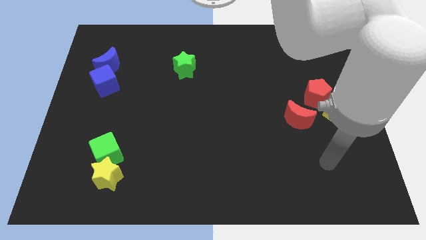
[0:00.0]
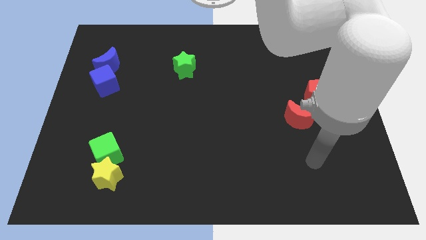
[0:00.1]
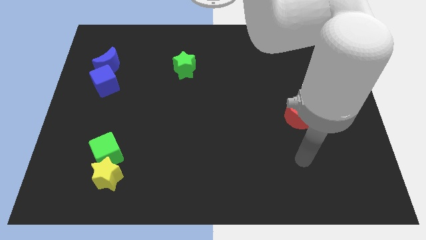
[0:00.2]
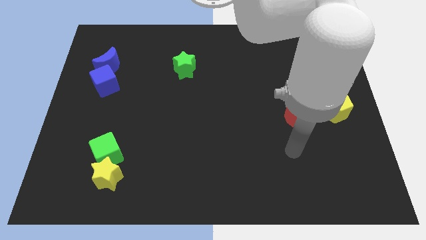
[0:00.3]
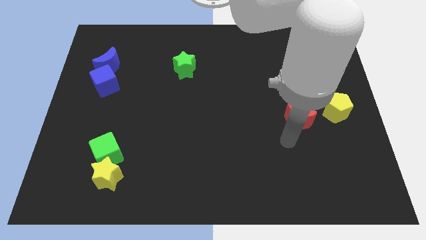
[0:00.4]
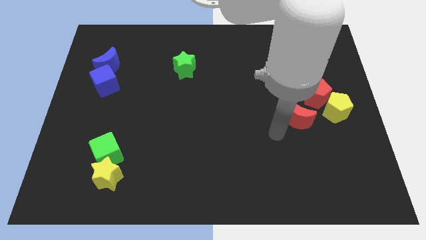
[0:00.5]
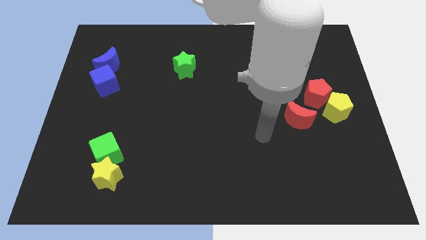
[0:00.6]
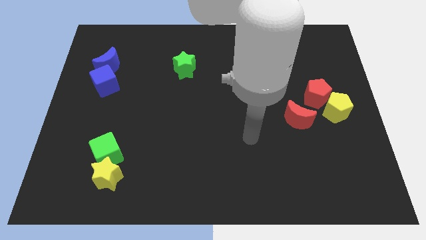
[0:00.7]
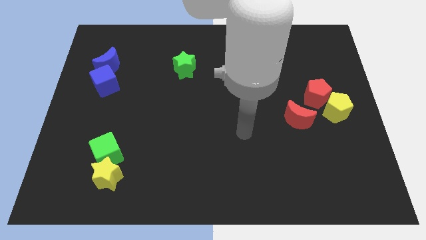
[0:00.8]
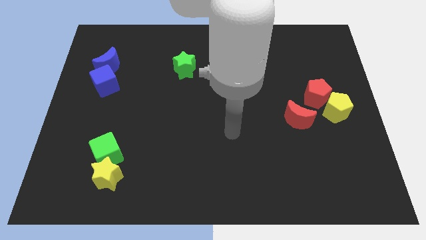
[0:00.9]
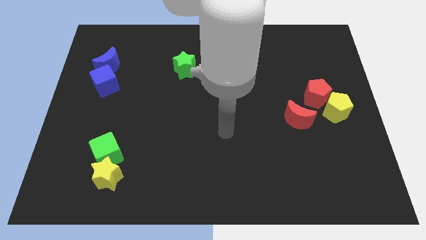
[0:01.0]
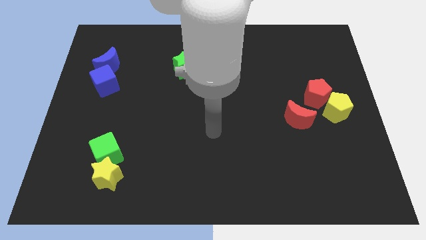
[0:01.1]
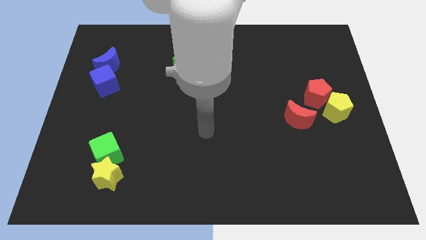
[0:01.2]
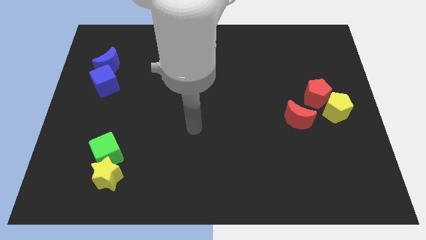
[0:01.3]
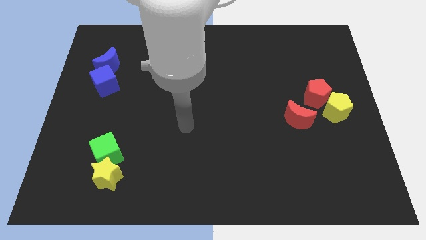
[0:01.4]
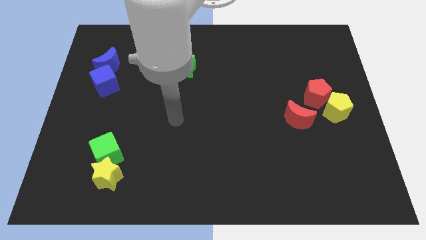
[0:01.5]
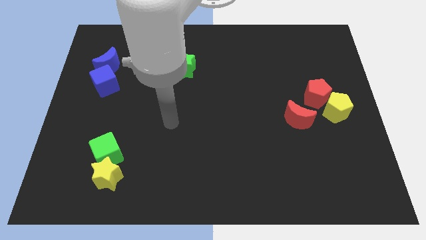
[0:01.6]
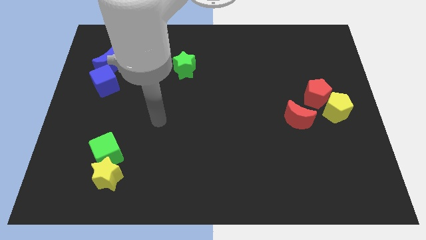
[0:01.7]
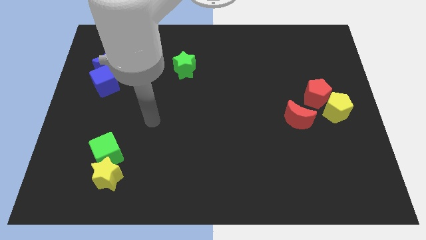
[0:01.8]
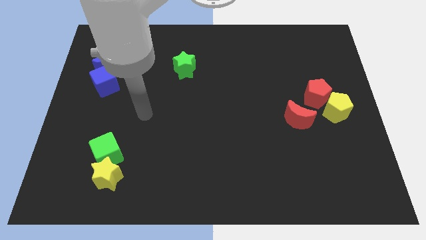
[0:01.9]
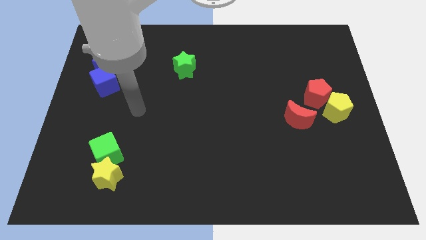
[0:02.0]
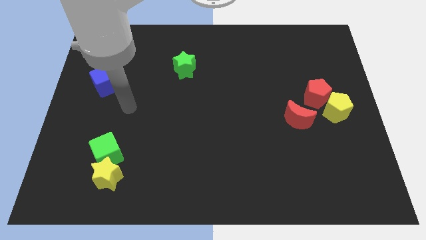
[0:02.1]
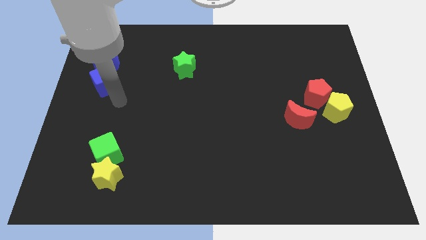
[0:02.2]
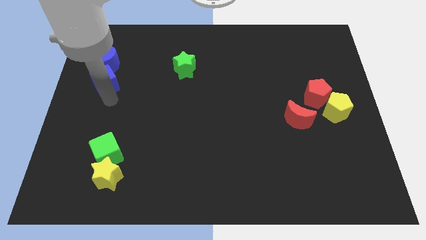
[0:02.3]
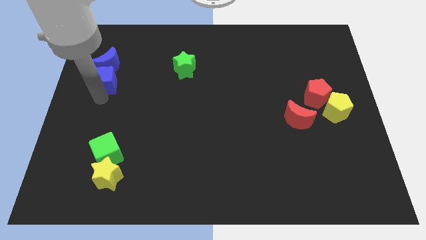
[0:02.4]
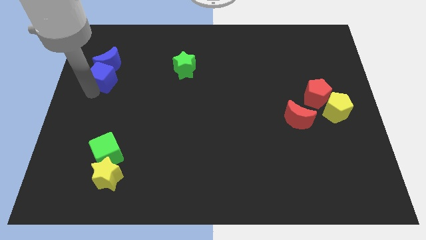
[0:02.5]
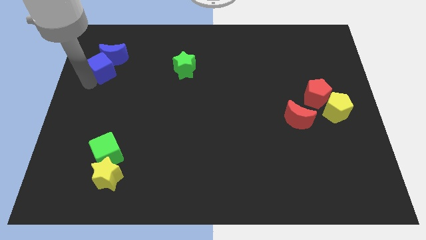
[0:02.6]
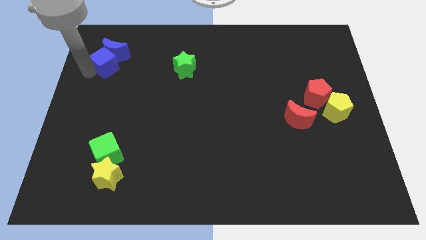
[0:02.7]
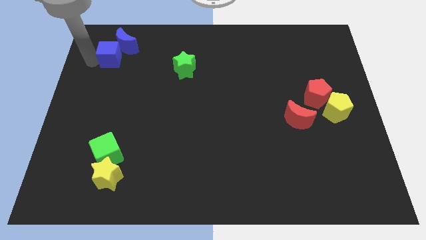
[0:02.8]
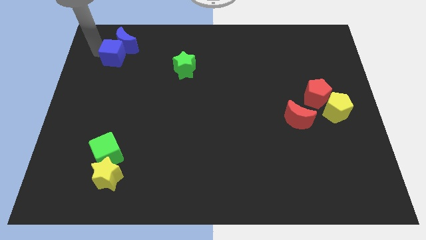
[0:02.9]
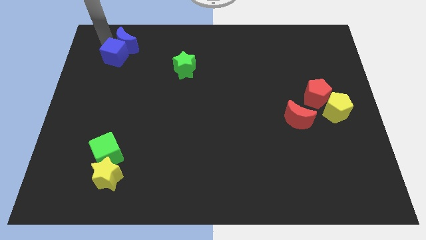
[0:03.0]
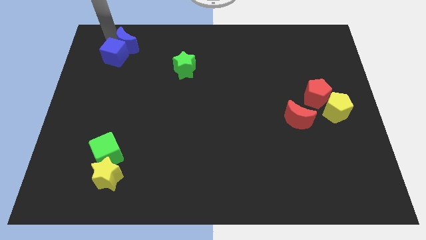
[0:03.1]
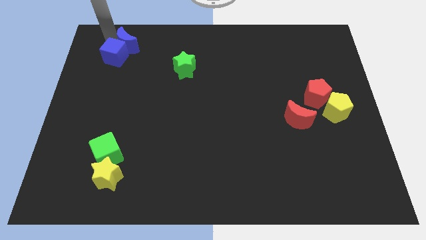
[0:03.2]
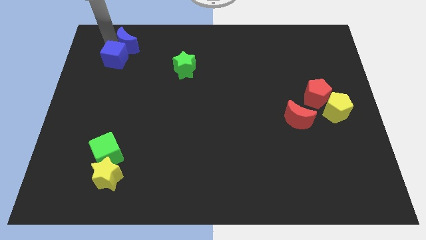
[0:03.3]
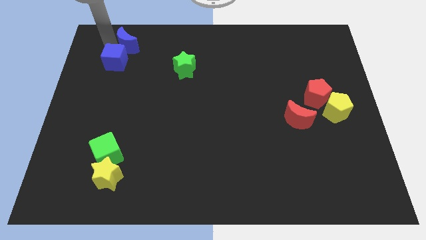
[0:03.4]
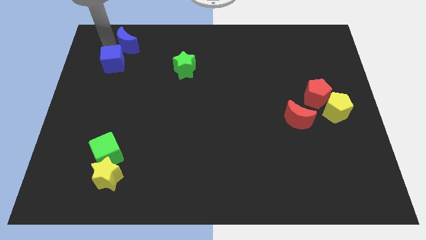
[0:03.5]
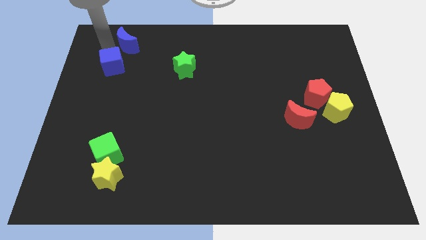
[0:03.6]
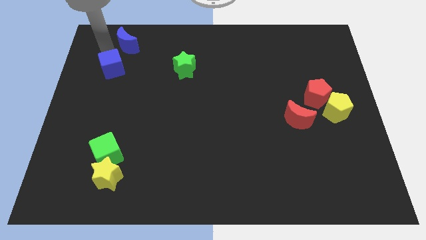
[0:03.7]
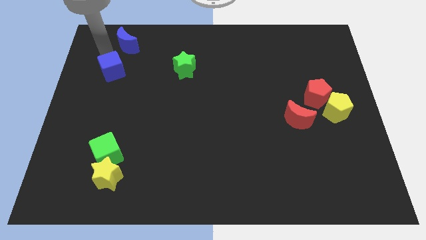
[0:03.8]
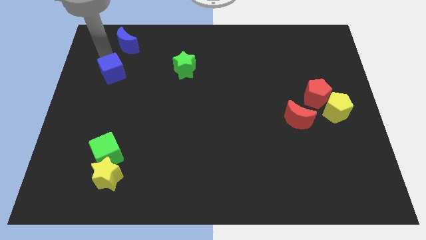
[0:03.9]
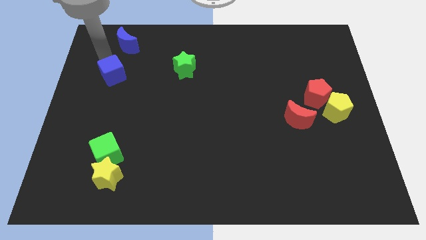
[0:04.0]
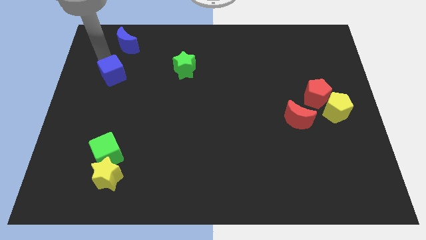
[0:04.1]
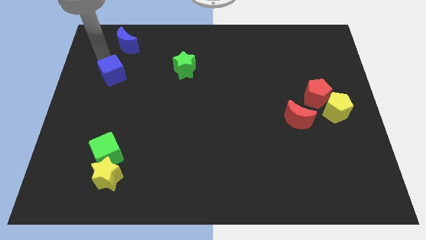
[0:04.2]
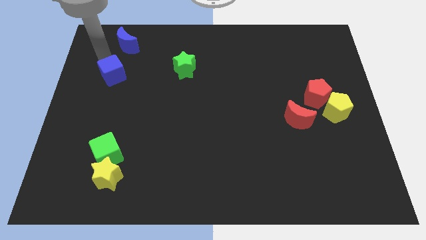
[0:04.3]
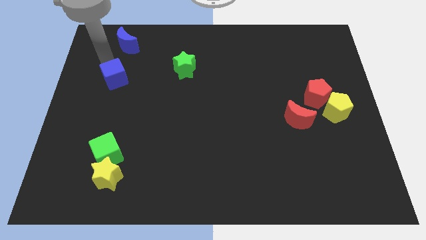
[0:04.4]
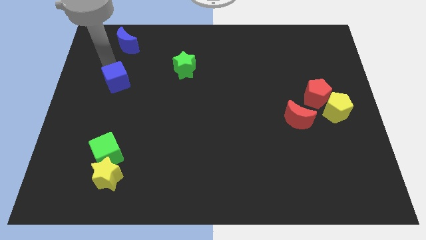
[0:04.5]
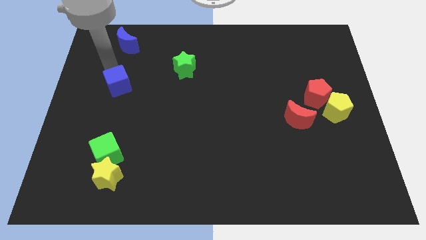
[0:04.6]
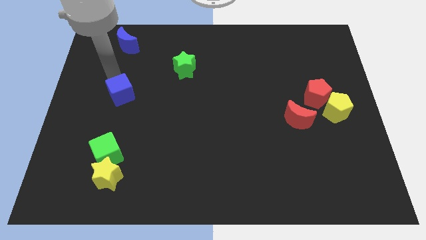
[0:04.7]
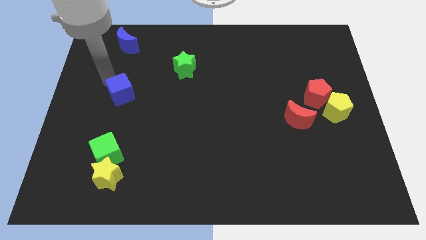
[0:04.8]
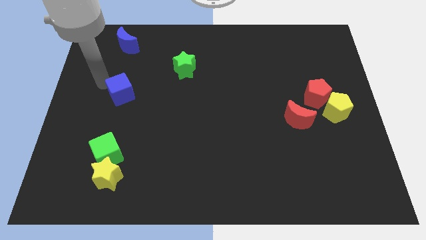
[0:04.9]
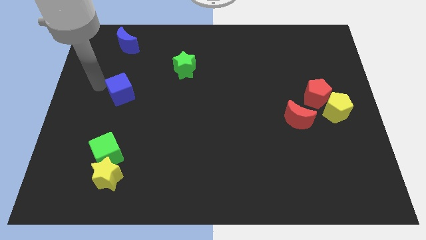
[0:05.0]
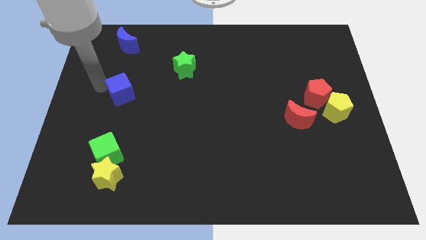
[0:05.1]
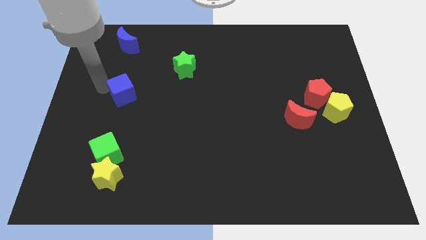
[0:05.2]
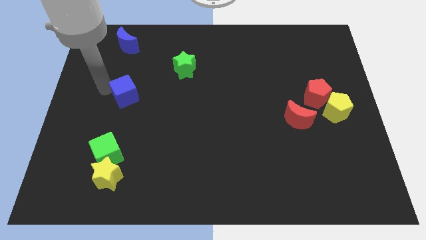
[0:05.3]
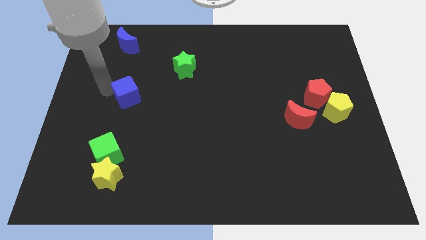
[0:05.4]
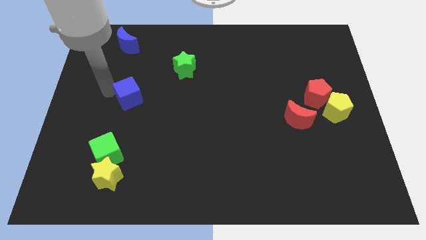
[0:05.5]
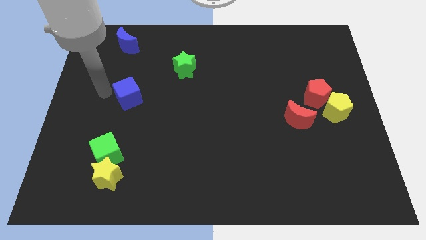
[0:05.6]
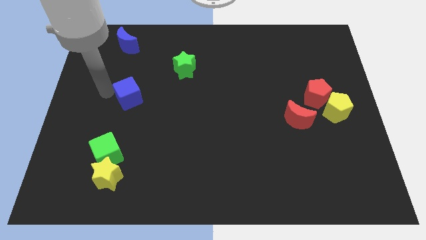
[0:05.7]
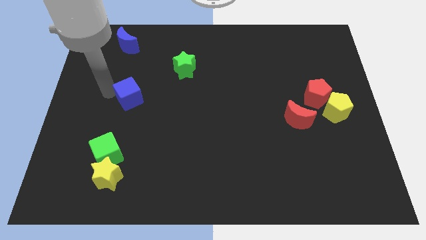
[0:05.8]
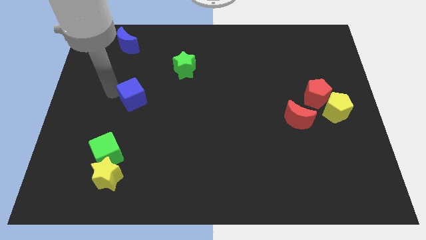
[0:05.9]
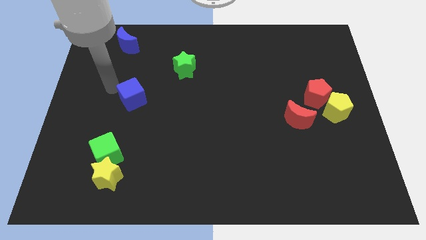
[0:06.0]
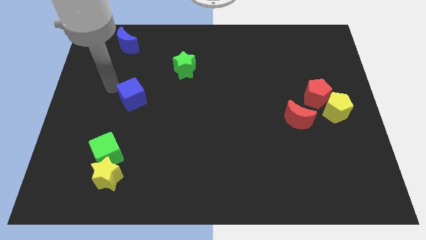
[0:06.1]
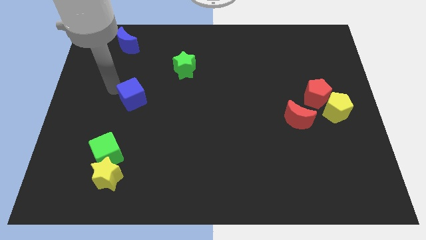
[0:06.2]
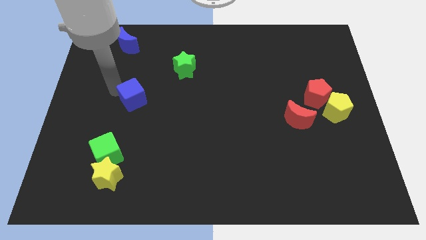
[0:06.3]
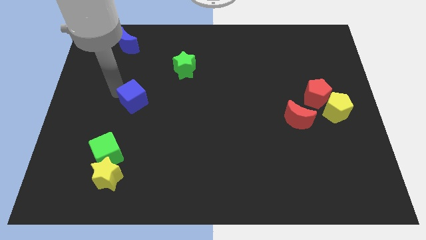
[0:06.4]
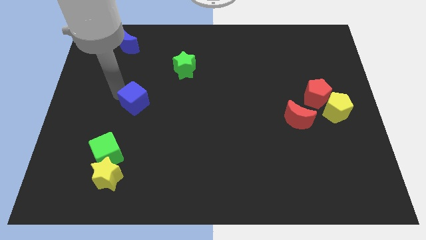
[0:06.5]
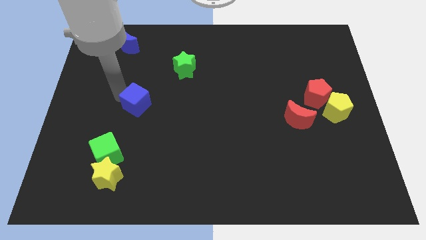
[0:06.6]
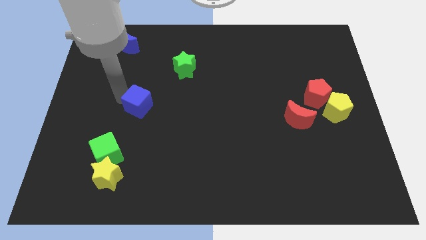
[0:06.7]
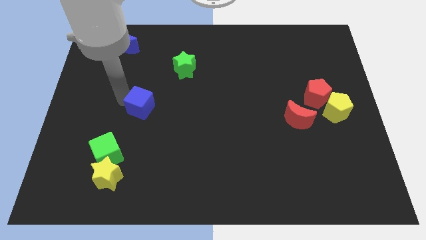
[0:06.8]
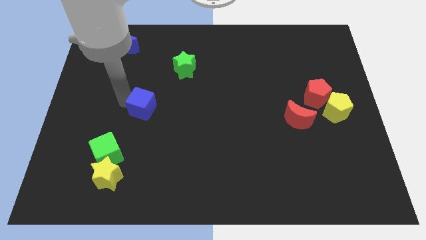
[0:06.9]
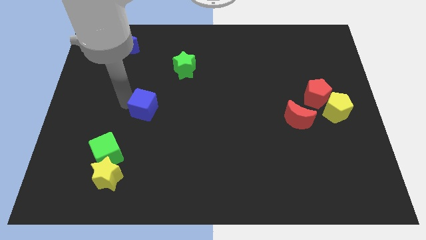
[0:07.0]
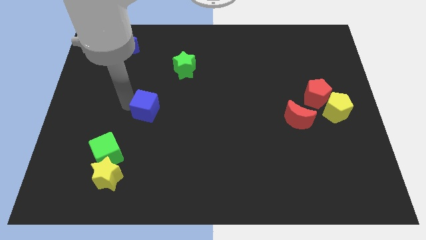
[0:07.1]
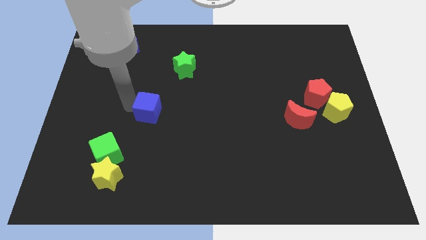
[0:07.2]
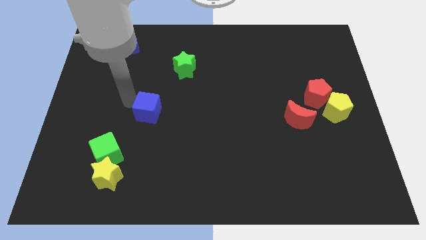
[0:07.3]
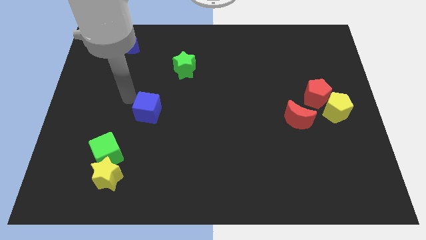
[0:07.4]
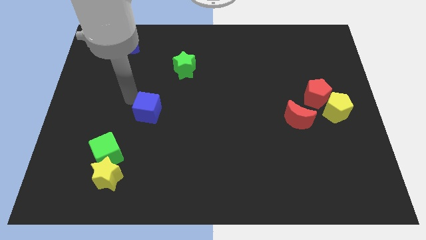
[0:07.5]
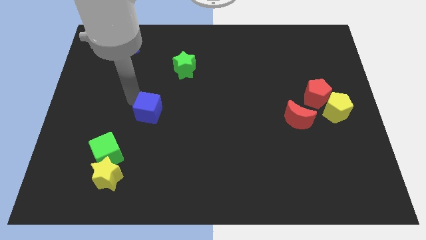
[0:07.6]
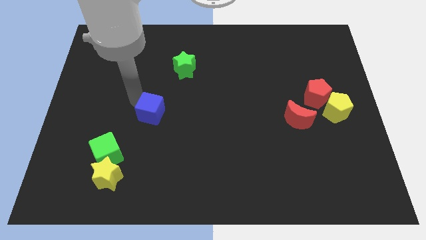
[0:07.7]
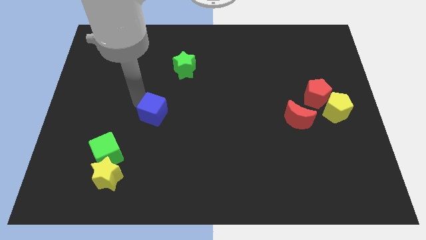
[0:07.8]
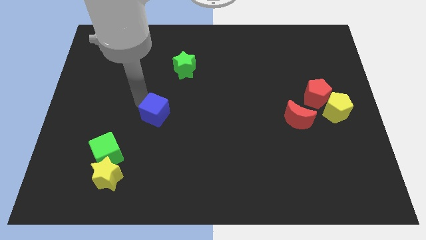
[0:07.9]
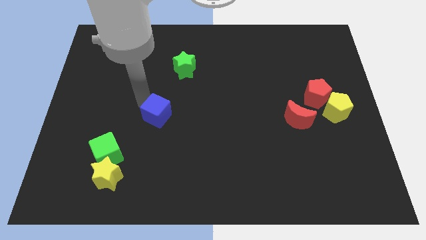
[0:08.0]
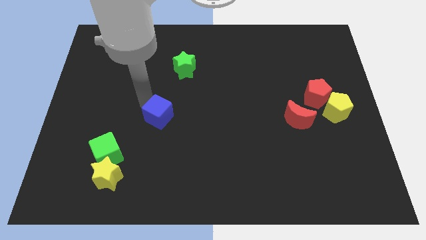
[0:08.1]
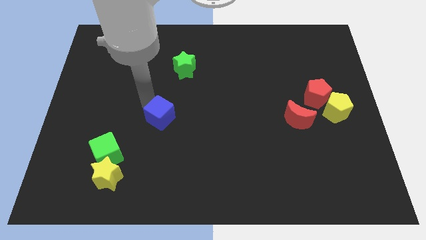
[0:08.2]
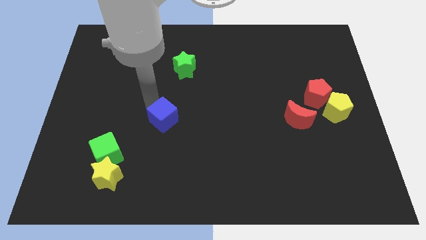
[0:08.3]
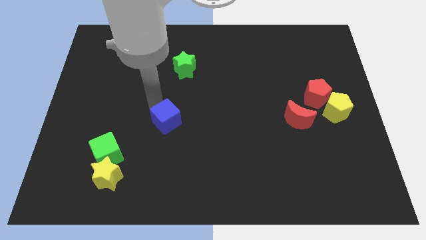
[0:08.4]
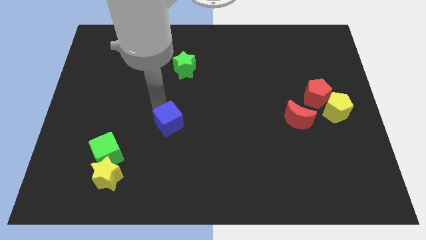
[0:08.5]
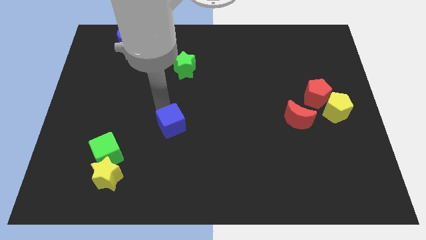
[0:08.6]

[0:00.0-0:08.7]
slide the blue cube downwards and right
